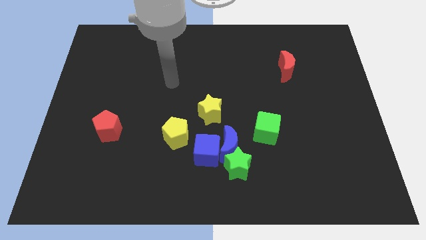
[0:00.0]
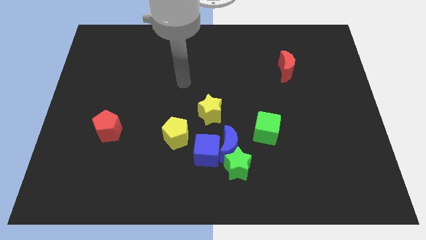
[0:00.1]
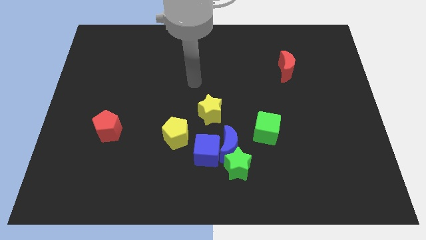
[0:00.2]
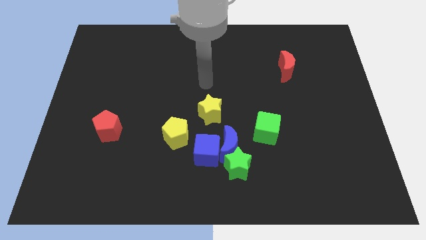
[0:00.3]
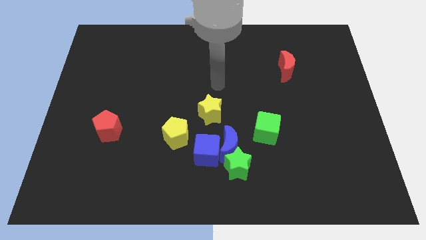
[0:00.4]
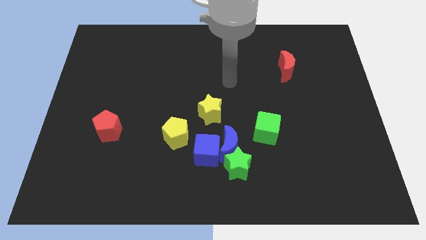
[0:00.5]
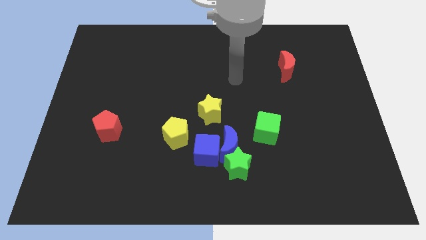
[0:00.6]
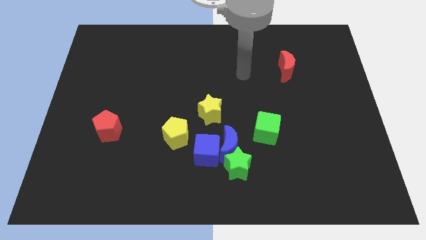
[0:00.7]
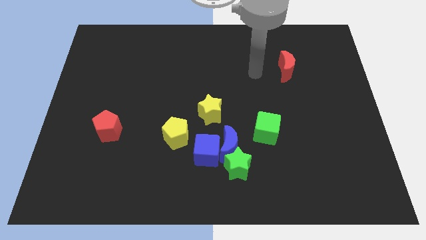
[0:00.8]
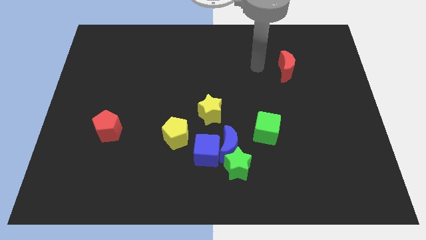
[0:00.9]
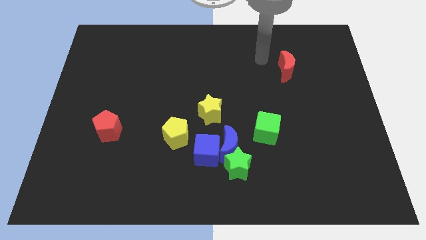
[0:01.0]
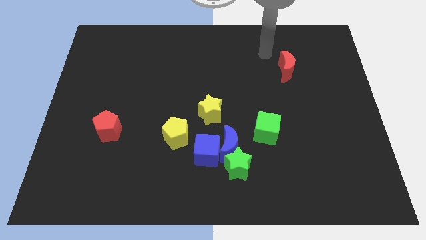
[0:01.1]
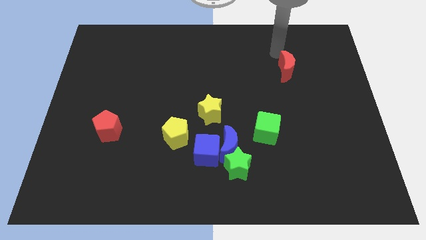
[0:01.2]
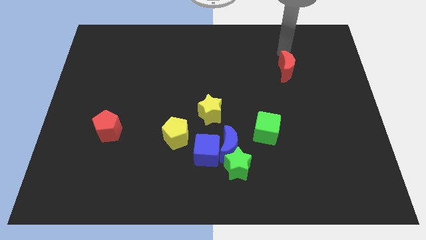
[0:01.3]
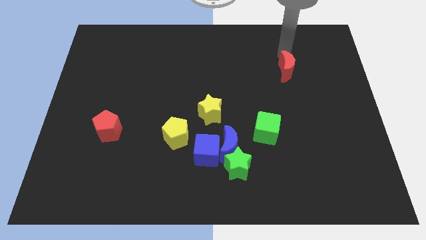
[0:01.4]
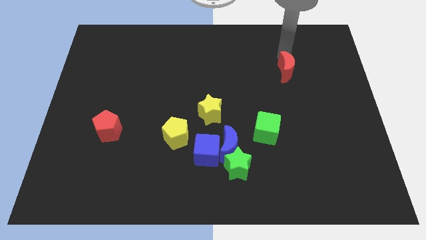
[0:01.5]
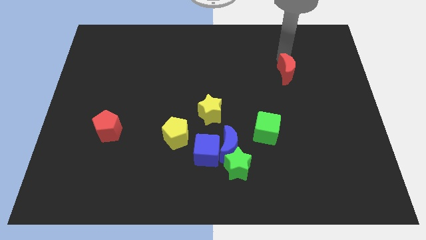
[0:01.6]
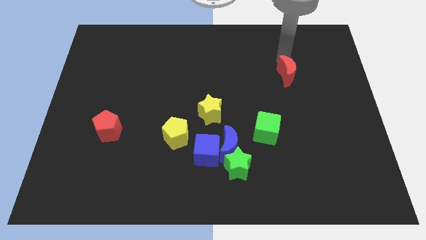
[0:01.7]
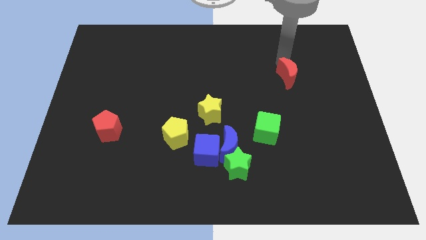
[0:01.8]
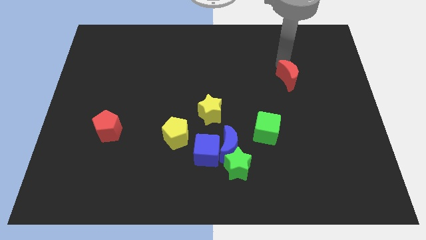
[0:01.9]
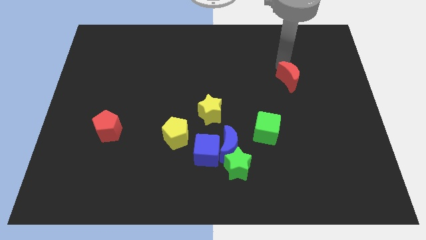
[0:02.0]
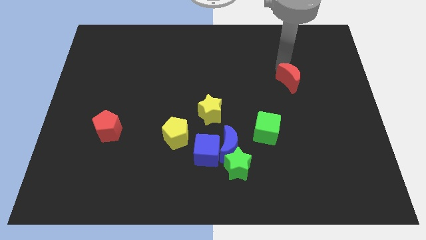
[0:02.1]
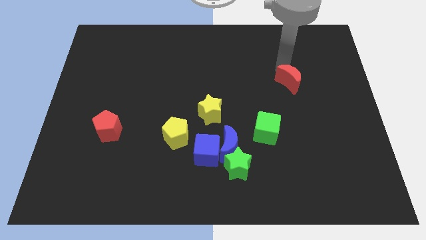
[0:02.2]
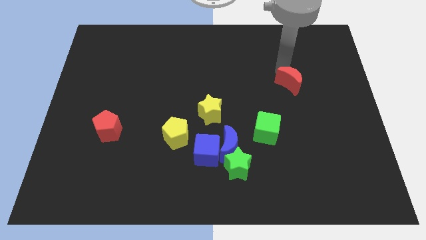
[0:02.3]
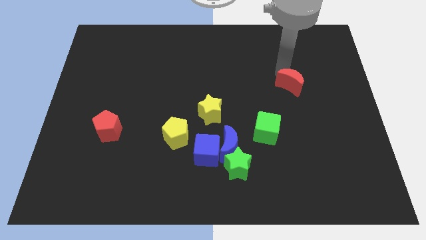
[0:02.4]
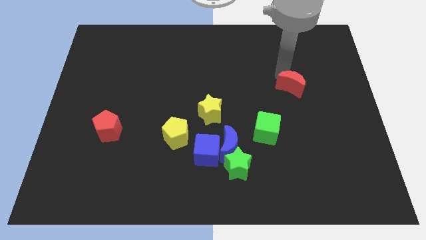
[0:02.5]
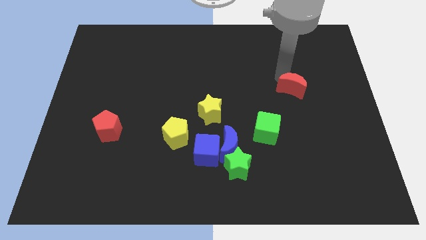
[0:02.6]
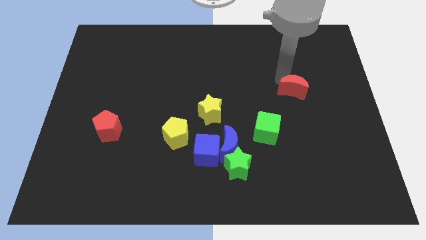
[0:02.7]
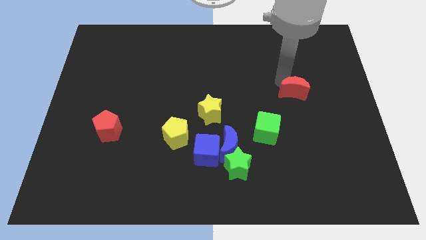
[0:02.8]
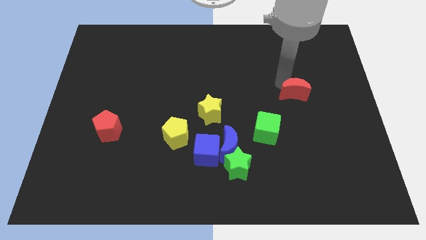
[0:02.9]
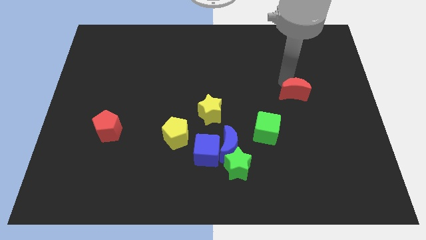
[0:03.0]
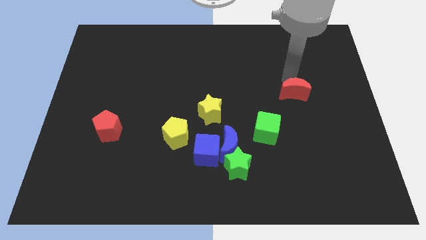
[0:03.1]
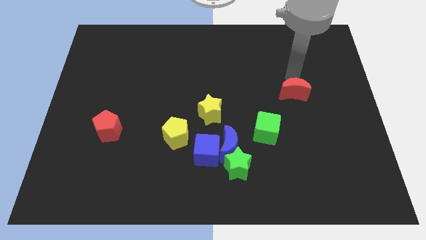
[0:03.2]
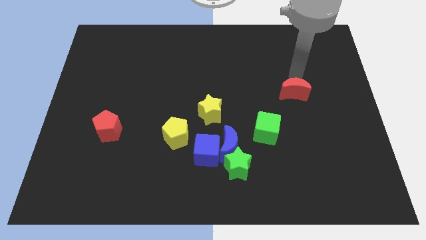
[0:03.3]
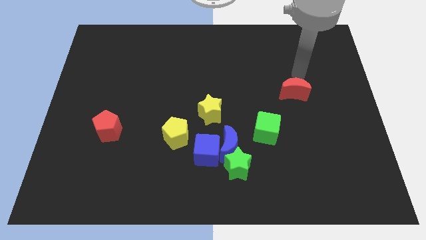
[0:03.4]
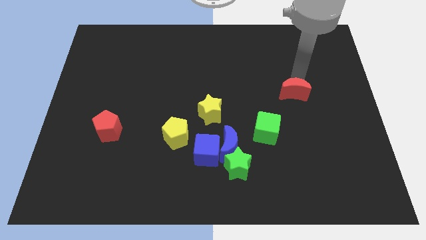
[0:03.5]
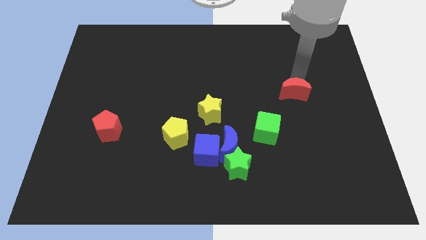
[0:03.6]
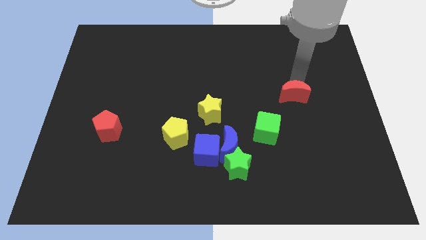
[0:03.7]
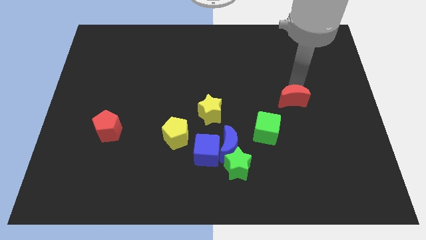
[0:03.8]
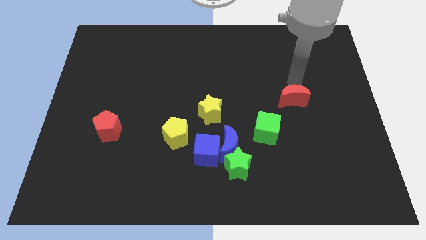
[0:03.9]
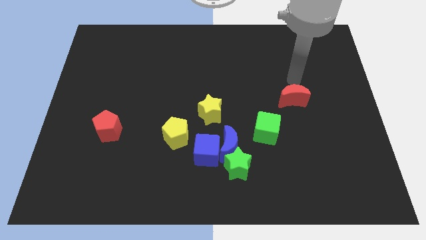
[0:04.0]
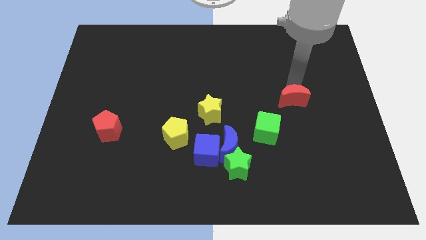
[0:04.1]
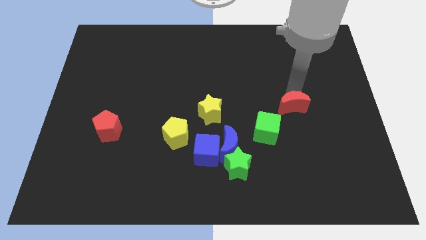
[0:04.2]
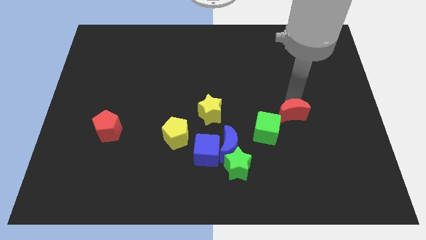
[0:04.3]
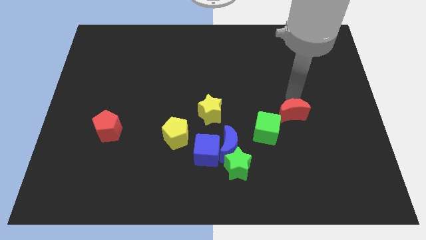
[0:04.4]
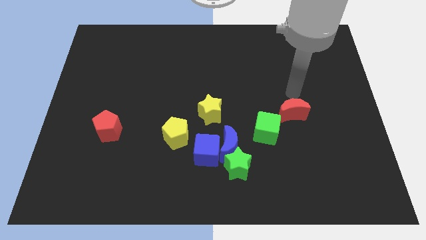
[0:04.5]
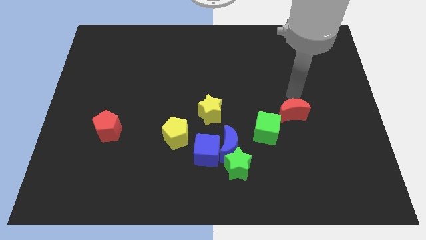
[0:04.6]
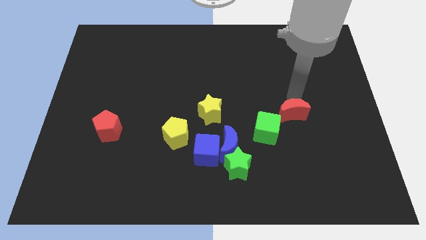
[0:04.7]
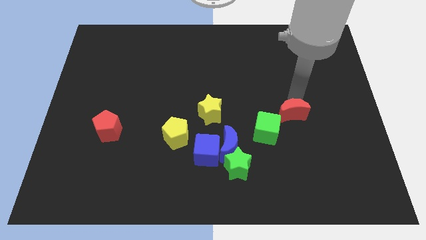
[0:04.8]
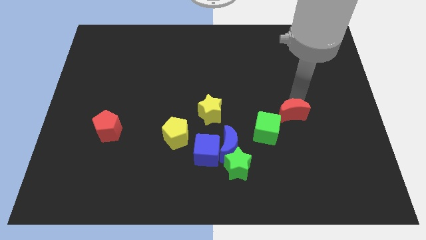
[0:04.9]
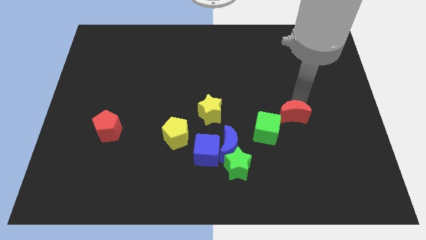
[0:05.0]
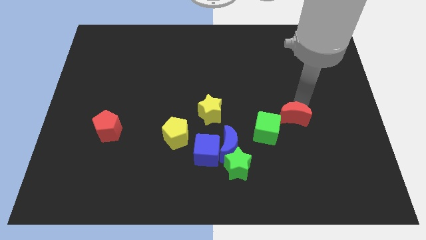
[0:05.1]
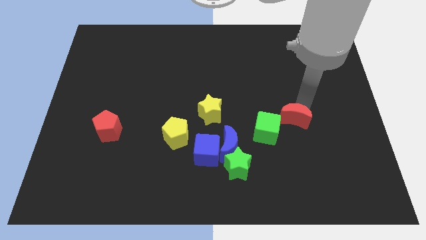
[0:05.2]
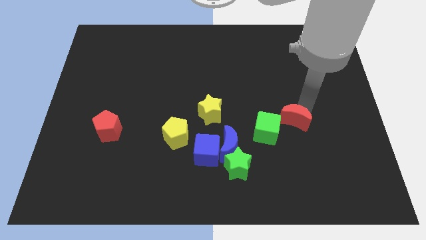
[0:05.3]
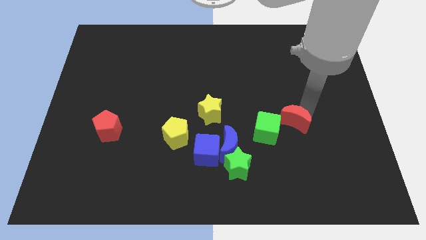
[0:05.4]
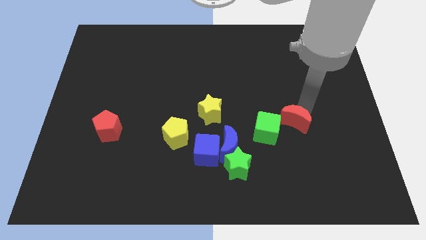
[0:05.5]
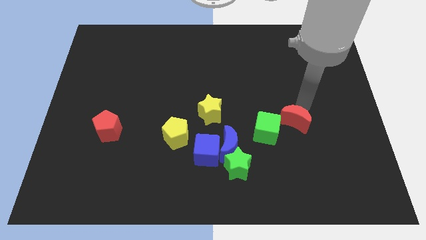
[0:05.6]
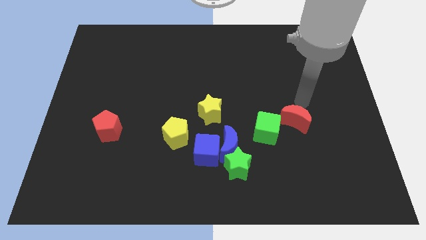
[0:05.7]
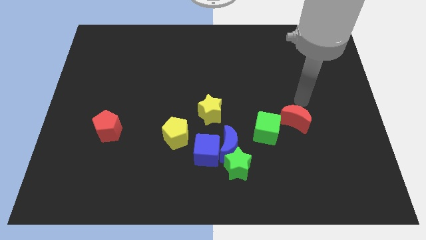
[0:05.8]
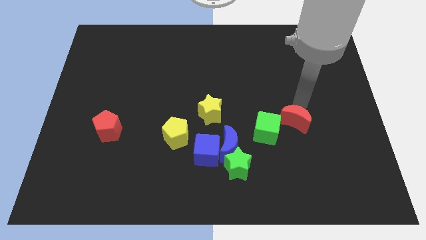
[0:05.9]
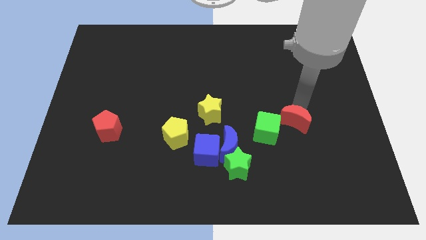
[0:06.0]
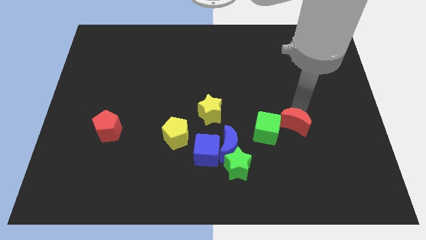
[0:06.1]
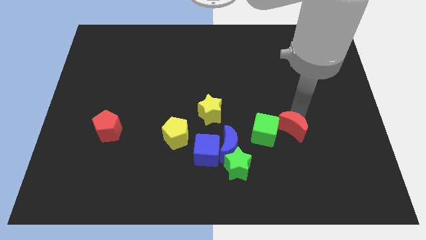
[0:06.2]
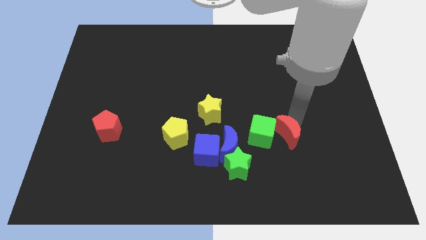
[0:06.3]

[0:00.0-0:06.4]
move the red moon diagonally down and to the right of the green cube

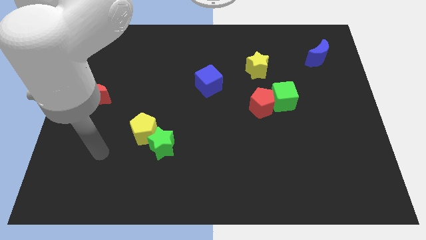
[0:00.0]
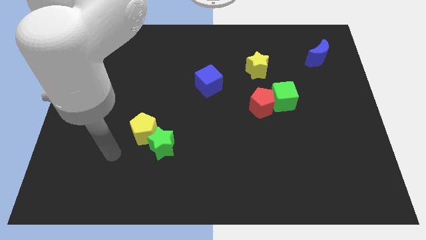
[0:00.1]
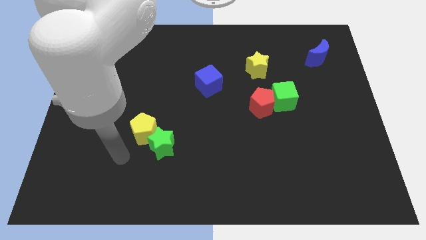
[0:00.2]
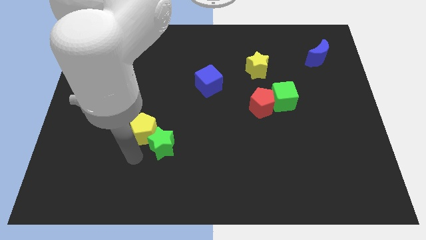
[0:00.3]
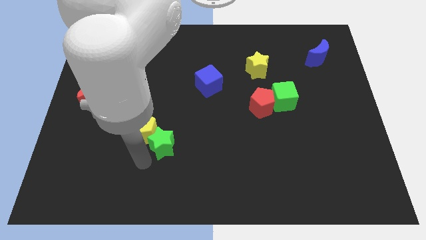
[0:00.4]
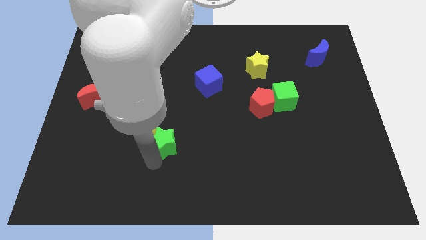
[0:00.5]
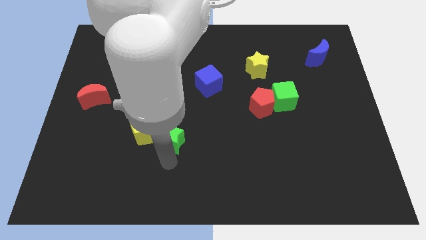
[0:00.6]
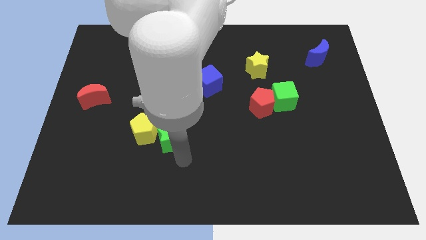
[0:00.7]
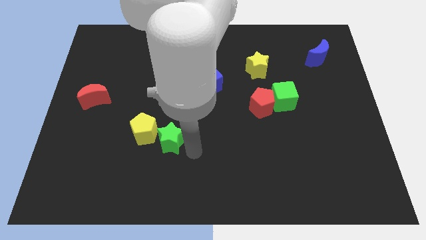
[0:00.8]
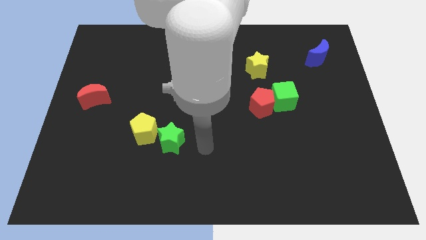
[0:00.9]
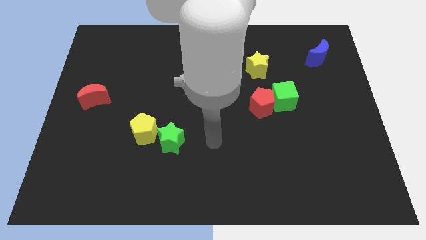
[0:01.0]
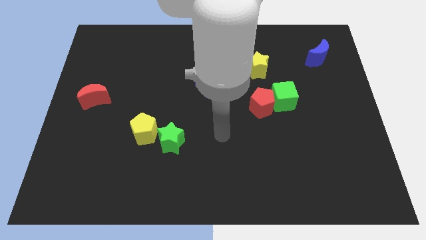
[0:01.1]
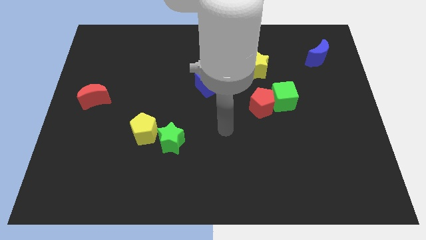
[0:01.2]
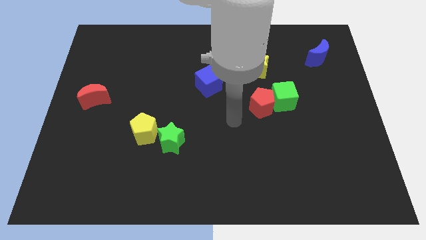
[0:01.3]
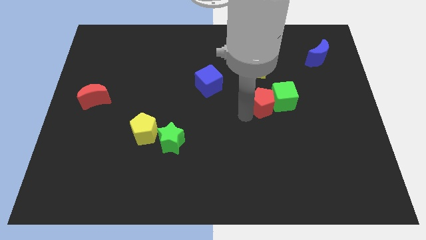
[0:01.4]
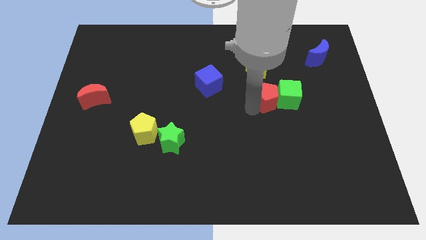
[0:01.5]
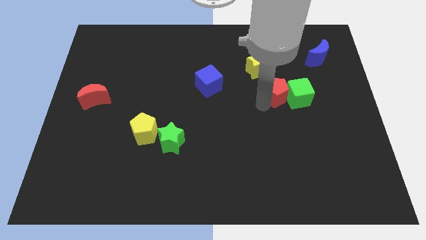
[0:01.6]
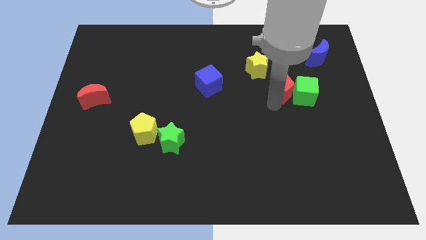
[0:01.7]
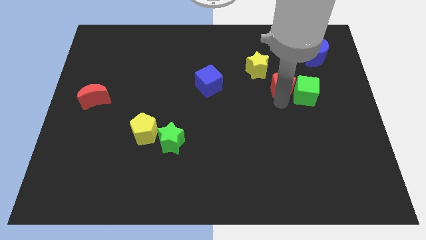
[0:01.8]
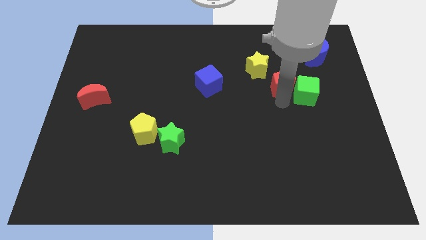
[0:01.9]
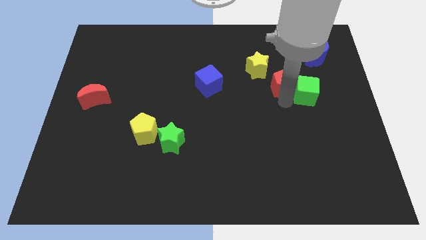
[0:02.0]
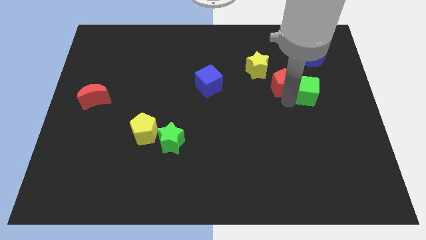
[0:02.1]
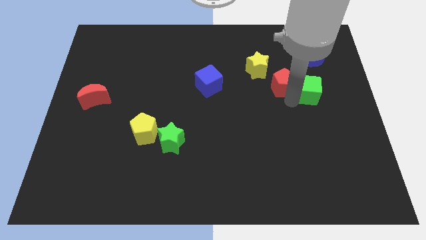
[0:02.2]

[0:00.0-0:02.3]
move the green cube to the bottom side of the blue moon
